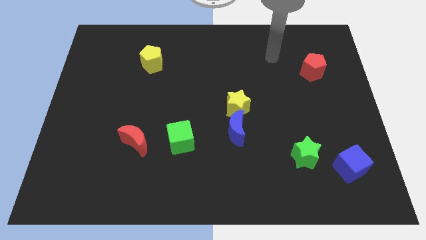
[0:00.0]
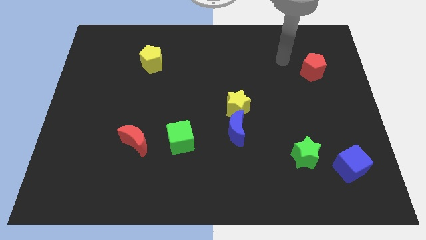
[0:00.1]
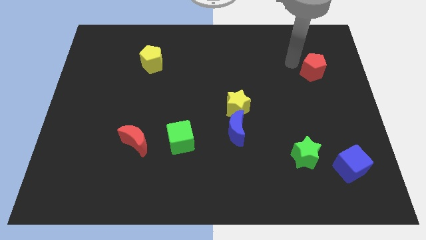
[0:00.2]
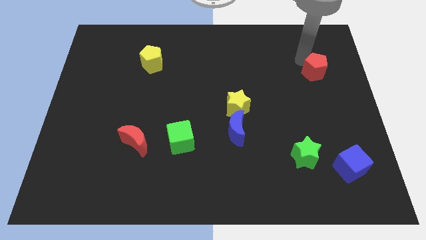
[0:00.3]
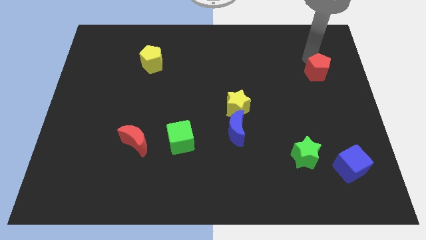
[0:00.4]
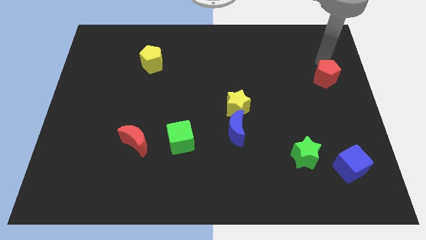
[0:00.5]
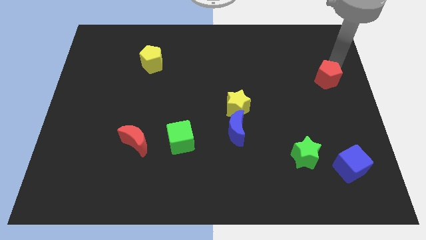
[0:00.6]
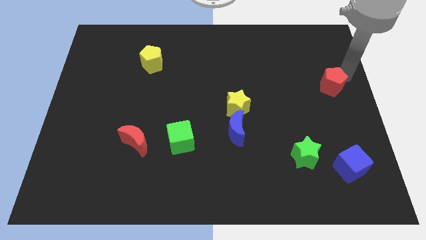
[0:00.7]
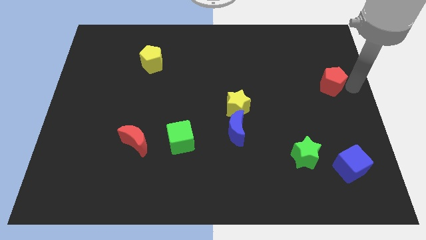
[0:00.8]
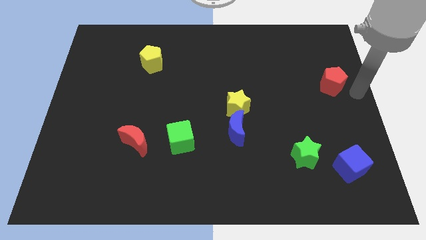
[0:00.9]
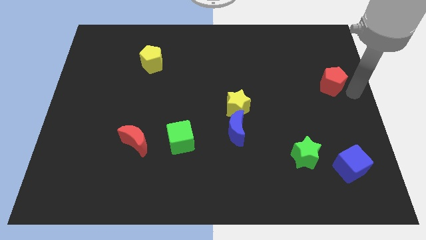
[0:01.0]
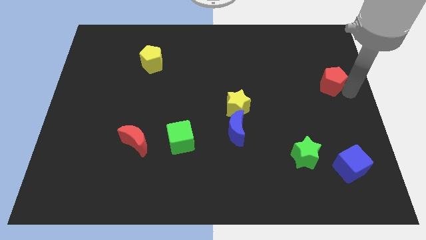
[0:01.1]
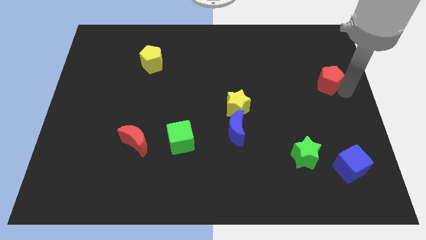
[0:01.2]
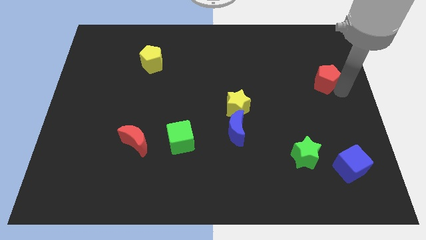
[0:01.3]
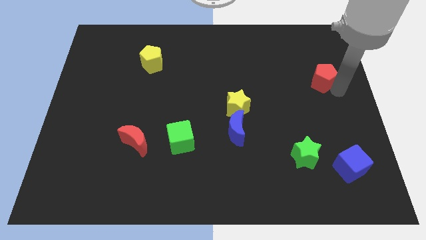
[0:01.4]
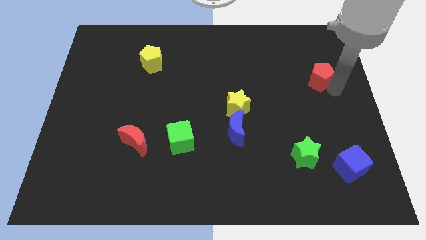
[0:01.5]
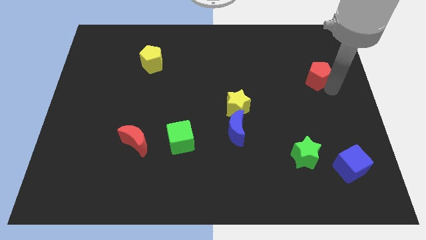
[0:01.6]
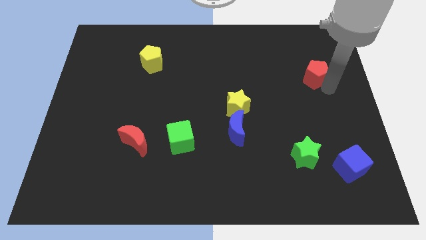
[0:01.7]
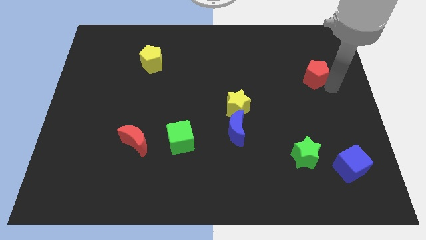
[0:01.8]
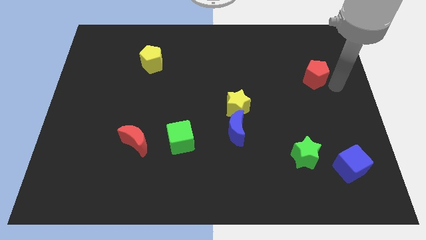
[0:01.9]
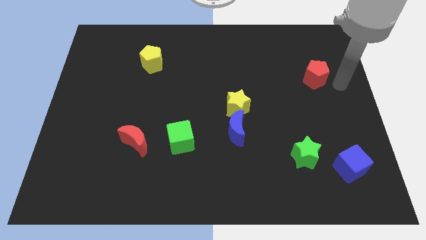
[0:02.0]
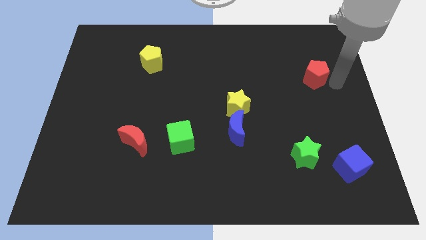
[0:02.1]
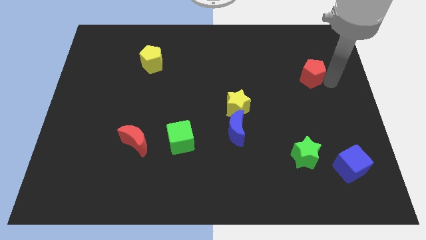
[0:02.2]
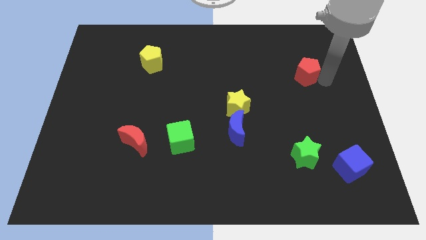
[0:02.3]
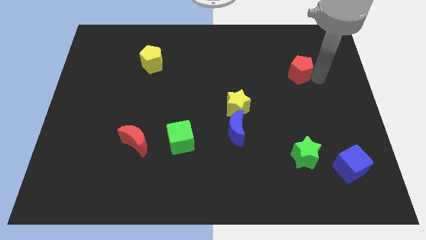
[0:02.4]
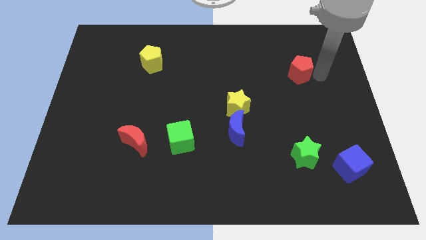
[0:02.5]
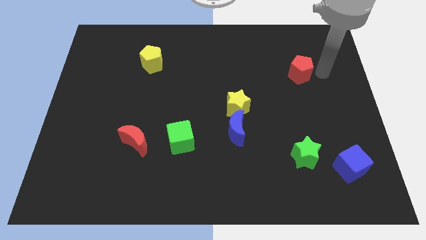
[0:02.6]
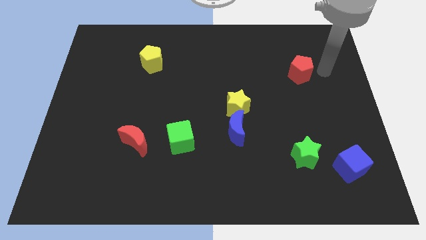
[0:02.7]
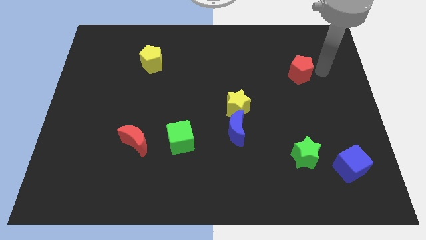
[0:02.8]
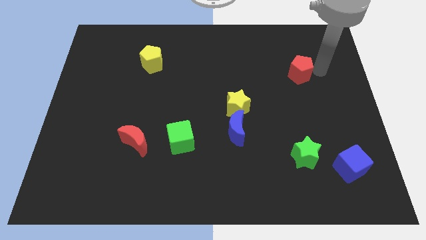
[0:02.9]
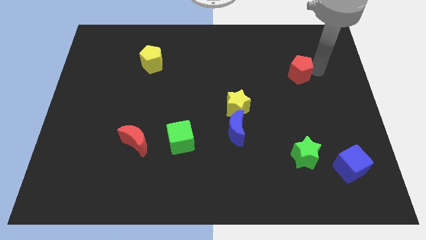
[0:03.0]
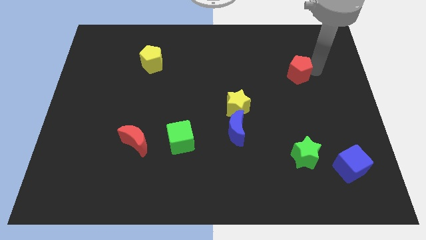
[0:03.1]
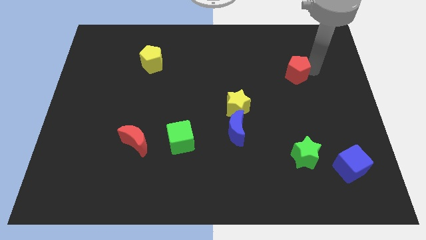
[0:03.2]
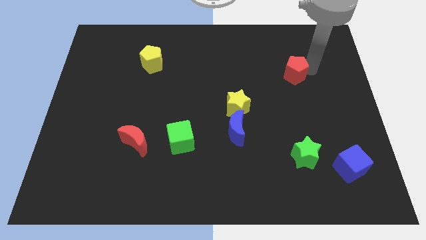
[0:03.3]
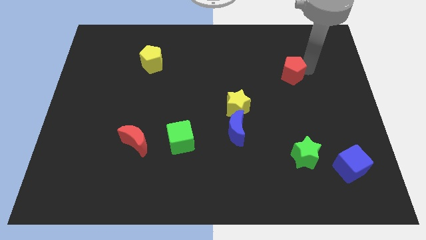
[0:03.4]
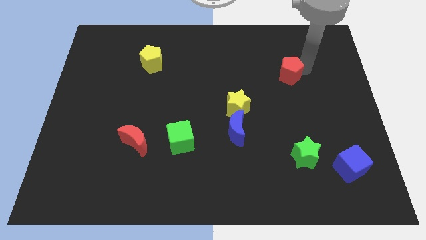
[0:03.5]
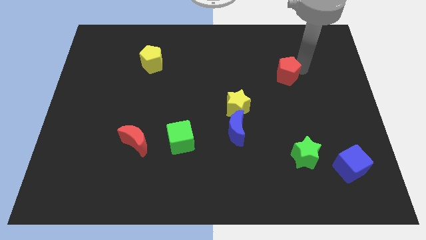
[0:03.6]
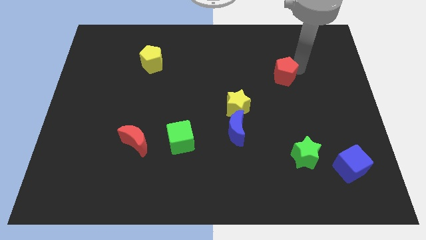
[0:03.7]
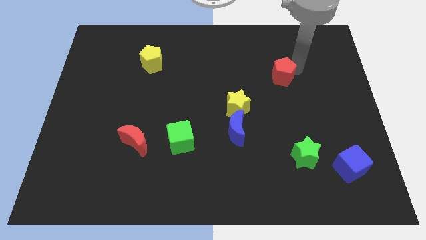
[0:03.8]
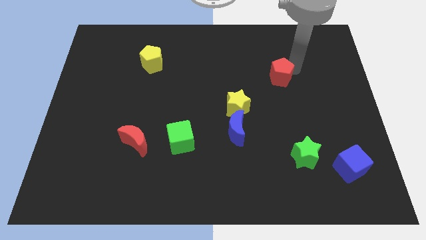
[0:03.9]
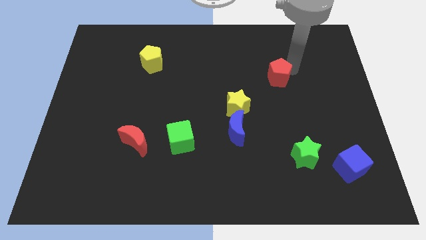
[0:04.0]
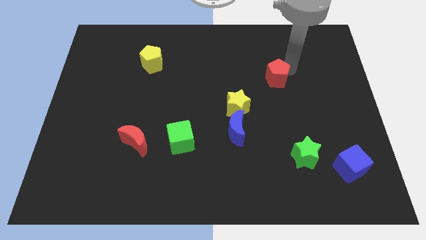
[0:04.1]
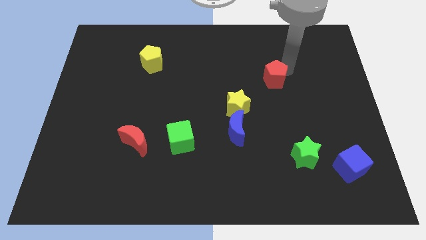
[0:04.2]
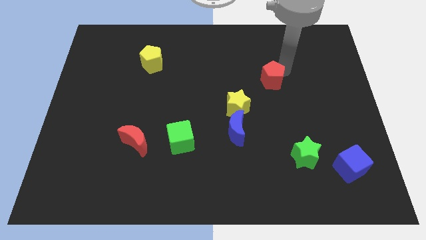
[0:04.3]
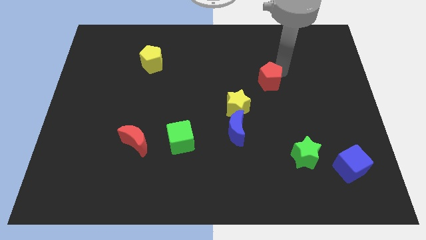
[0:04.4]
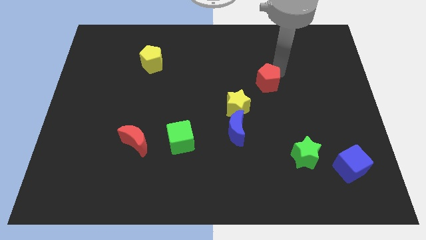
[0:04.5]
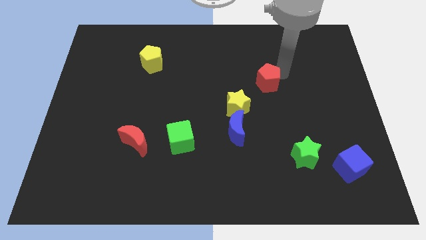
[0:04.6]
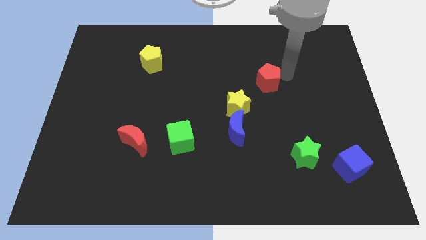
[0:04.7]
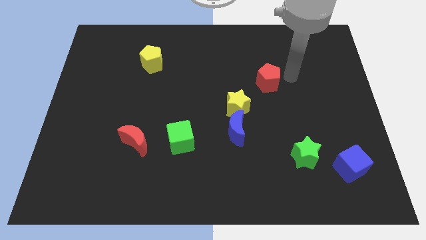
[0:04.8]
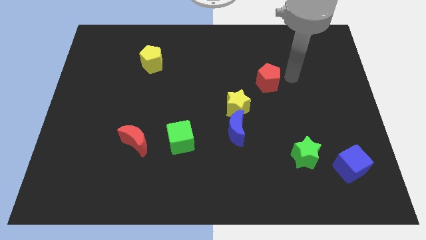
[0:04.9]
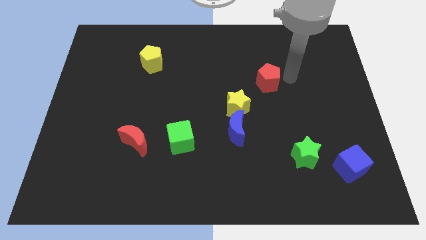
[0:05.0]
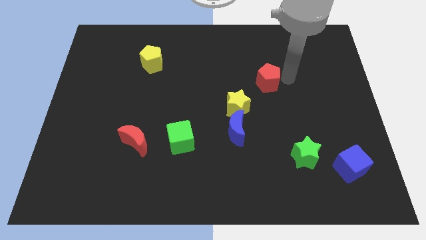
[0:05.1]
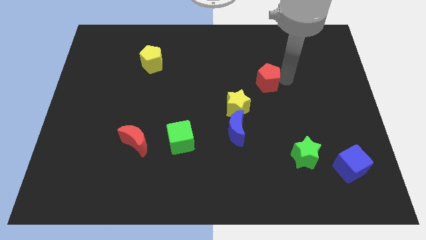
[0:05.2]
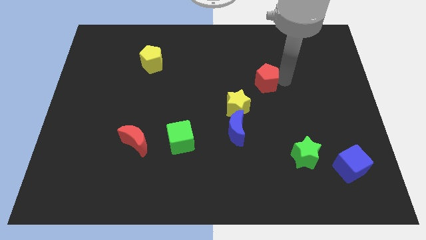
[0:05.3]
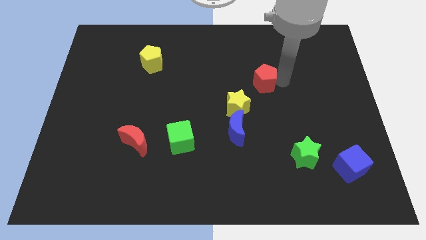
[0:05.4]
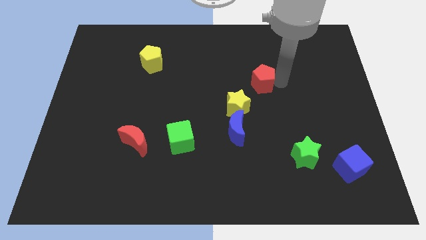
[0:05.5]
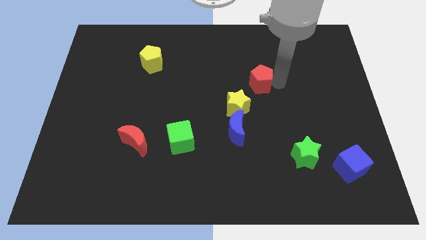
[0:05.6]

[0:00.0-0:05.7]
move the red pentagon to the middle

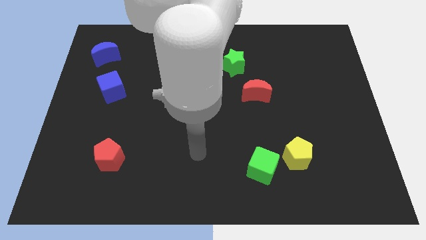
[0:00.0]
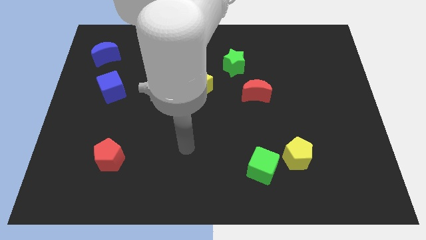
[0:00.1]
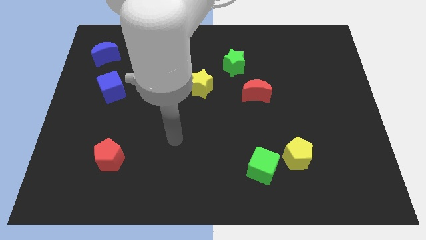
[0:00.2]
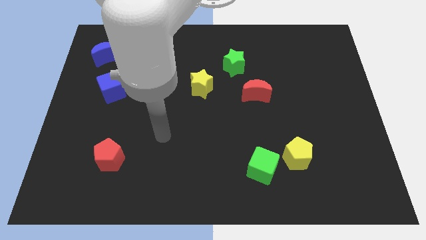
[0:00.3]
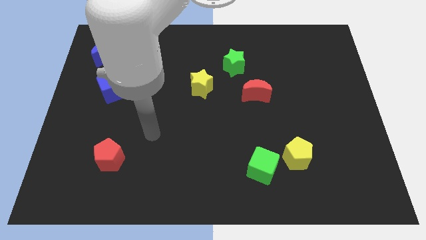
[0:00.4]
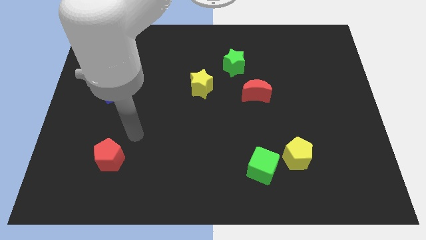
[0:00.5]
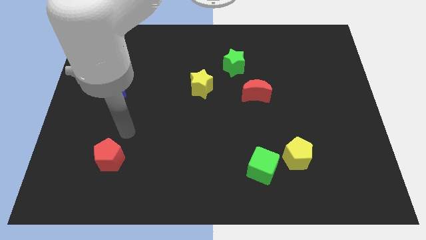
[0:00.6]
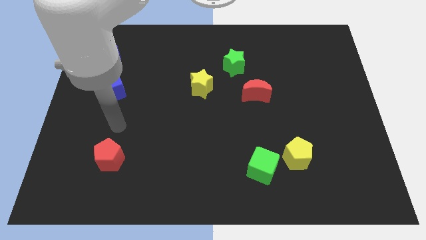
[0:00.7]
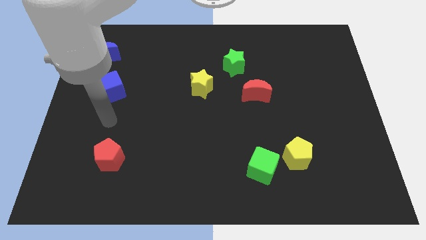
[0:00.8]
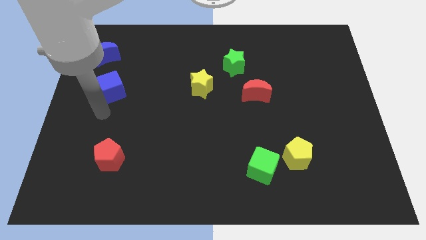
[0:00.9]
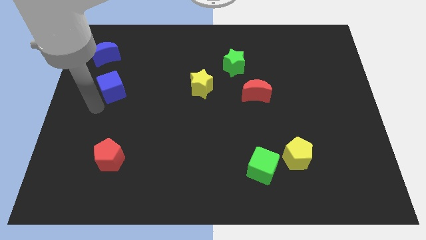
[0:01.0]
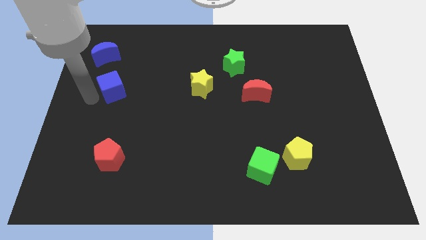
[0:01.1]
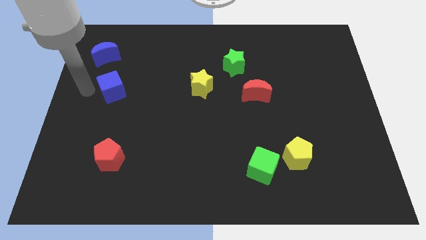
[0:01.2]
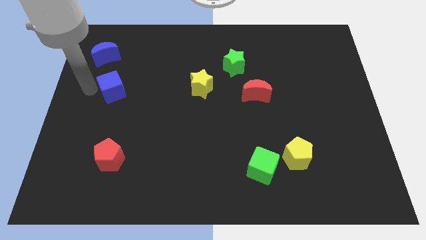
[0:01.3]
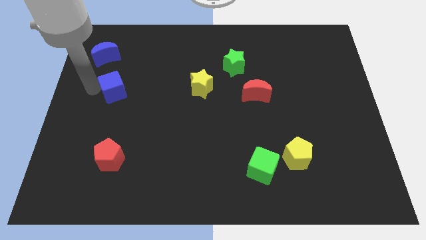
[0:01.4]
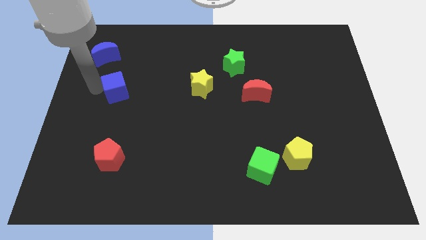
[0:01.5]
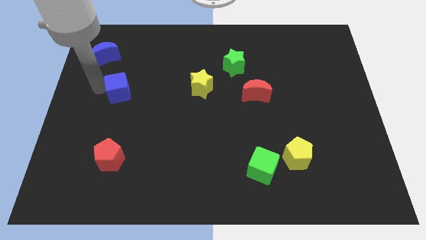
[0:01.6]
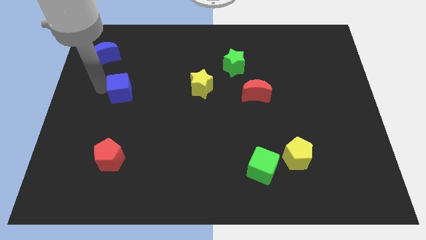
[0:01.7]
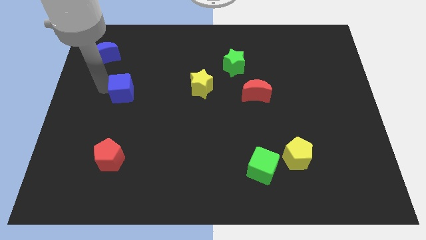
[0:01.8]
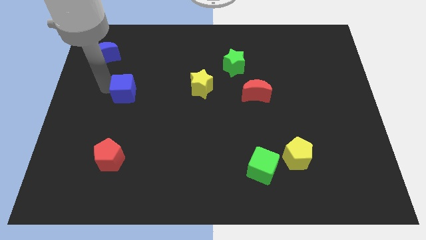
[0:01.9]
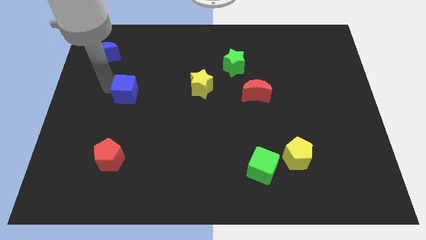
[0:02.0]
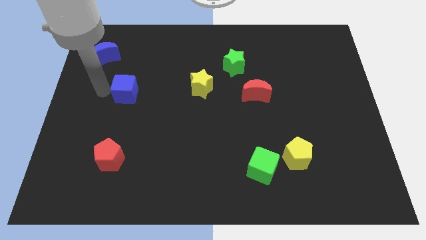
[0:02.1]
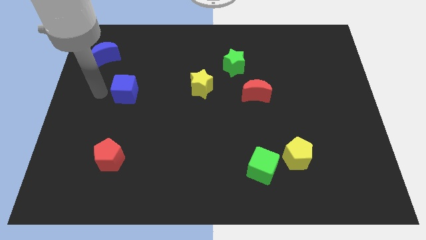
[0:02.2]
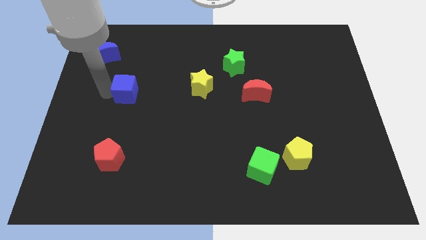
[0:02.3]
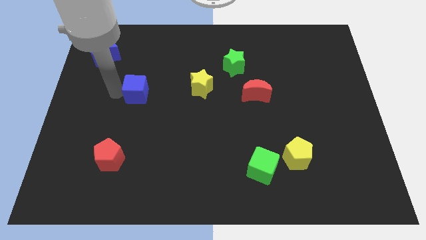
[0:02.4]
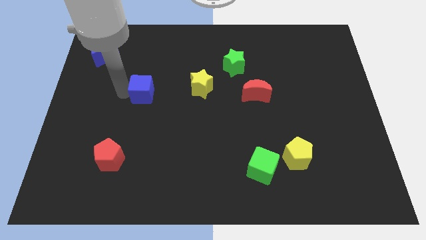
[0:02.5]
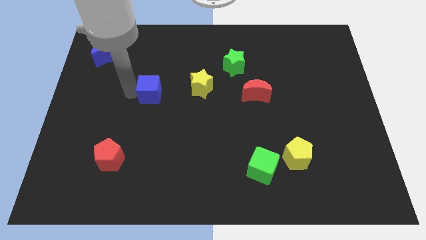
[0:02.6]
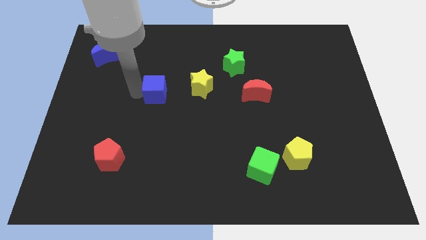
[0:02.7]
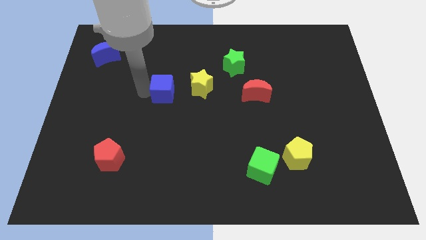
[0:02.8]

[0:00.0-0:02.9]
push the blue cube to the center
